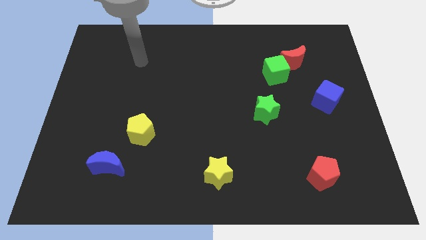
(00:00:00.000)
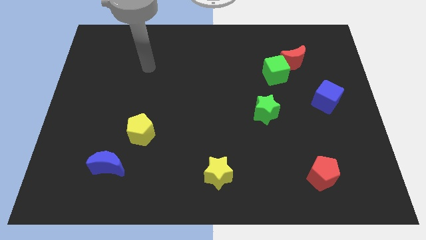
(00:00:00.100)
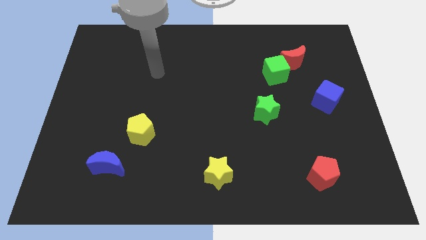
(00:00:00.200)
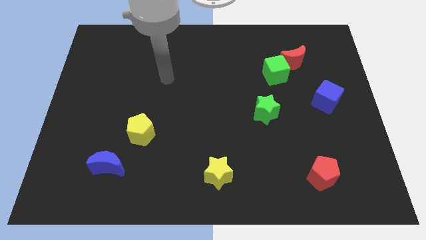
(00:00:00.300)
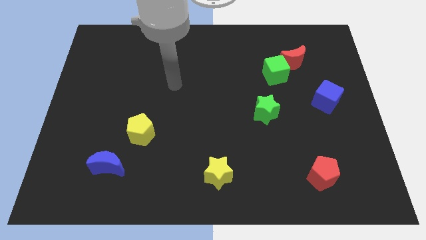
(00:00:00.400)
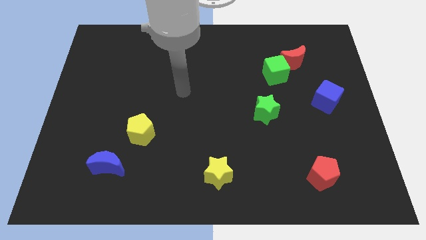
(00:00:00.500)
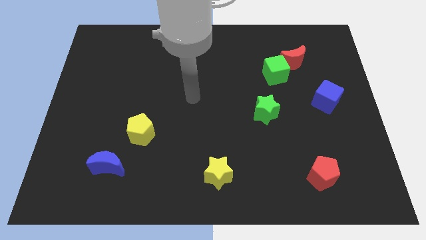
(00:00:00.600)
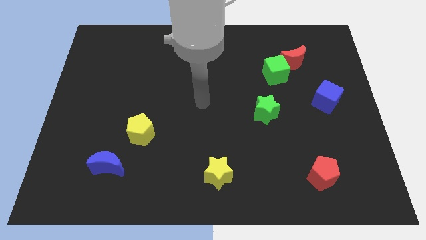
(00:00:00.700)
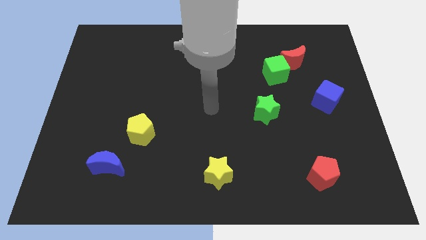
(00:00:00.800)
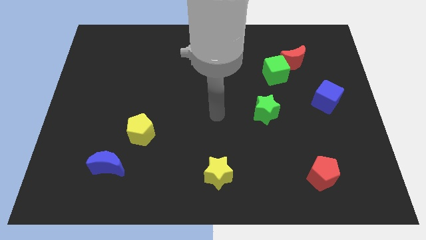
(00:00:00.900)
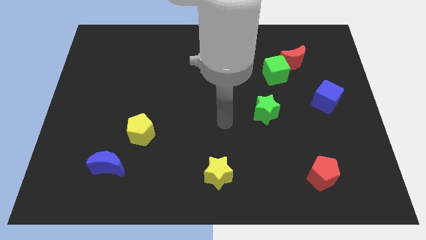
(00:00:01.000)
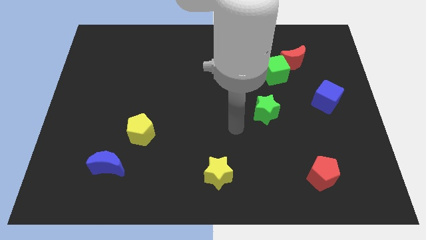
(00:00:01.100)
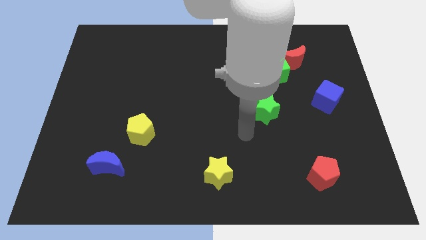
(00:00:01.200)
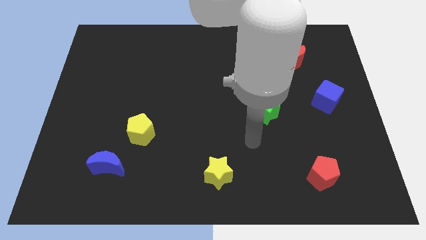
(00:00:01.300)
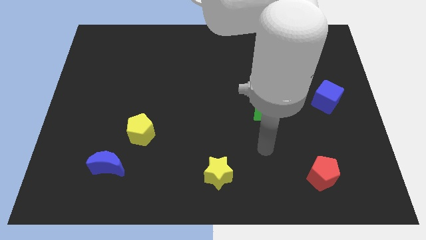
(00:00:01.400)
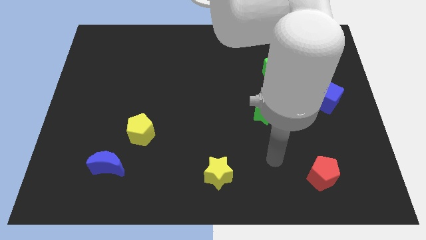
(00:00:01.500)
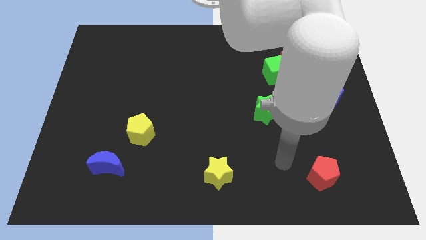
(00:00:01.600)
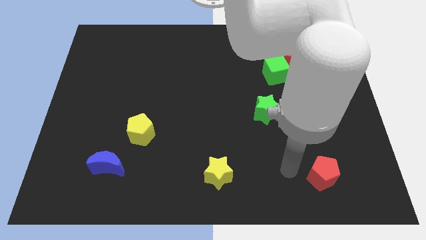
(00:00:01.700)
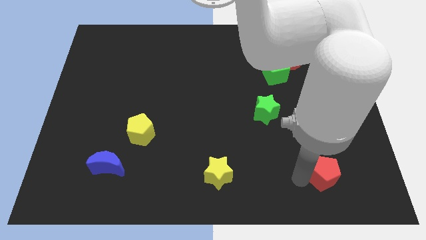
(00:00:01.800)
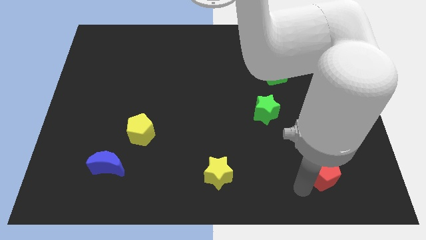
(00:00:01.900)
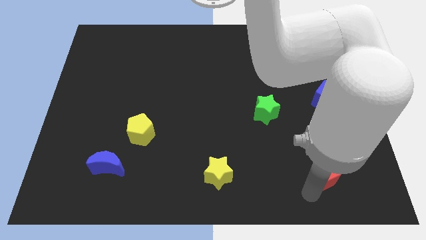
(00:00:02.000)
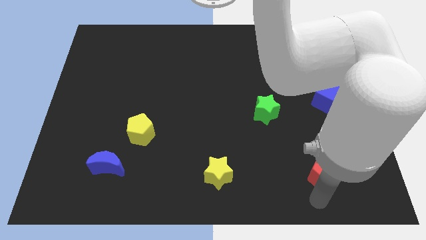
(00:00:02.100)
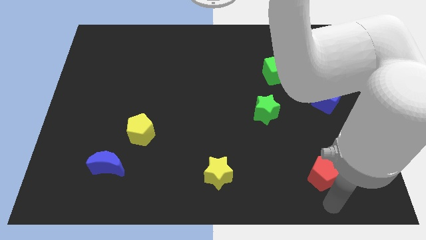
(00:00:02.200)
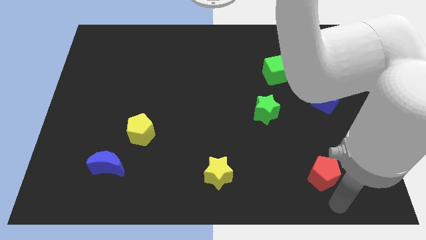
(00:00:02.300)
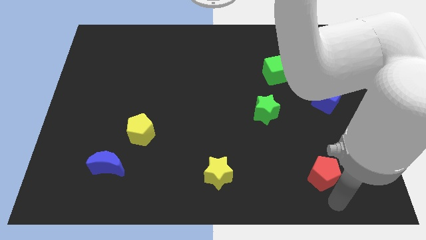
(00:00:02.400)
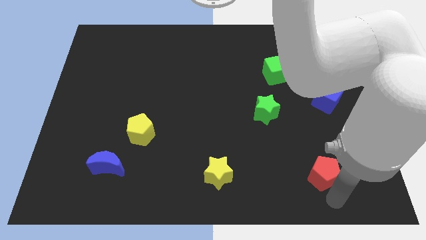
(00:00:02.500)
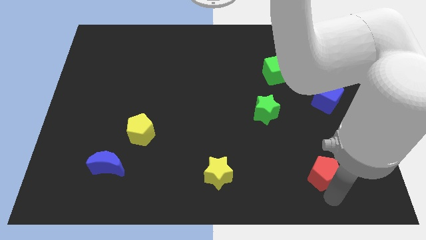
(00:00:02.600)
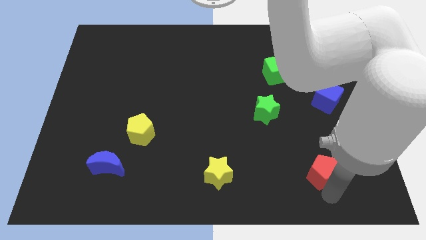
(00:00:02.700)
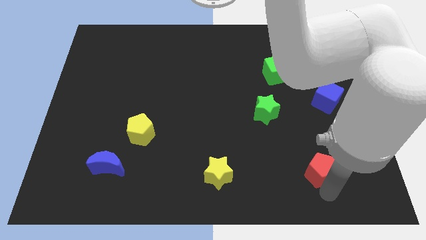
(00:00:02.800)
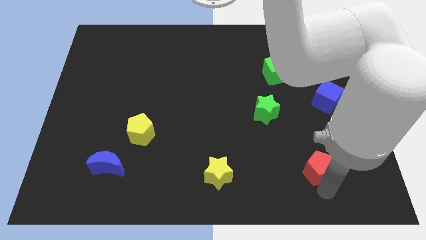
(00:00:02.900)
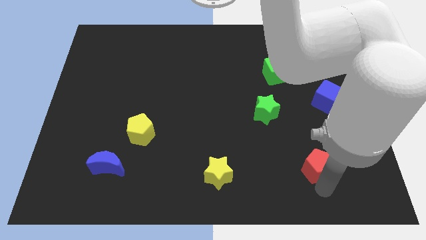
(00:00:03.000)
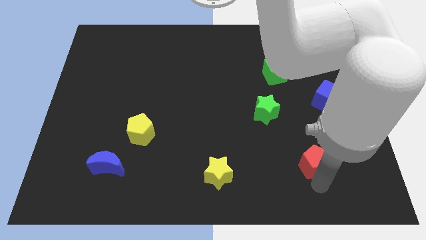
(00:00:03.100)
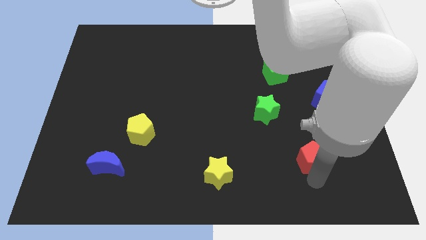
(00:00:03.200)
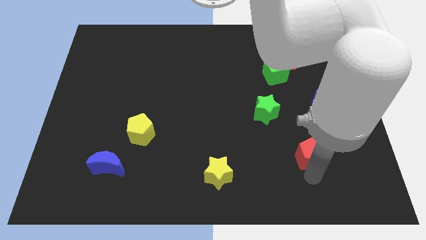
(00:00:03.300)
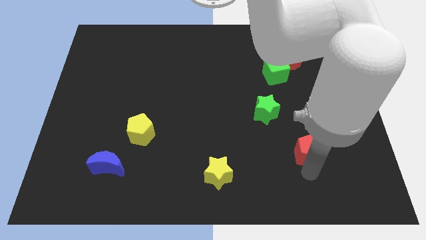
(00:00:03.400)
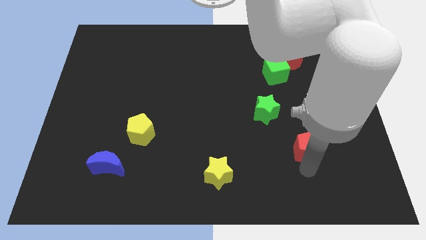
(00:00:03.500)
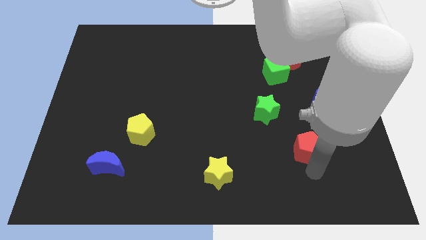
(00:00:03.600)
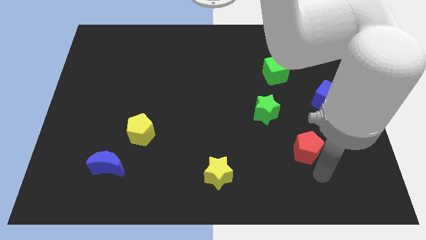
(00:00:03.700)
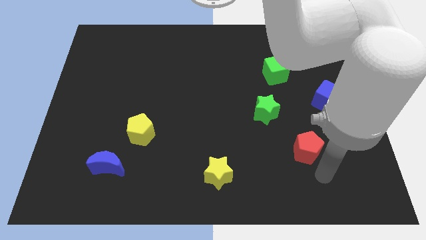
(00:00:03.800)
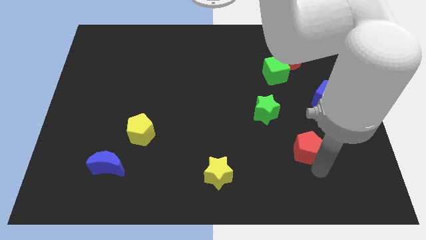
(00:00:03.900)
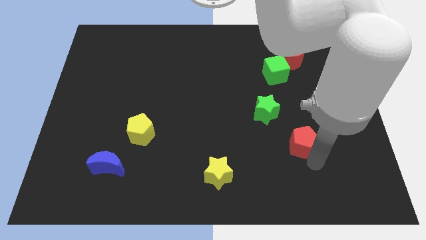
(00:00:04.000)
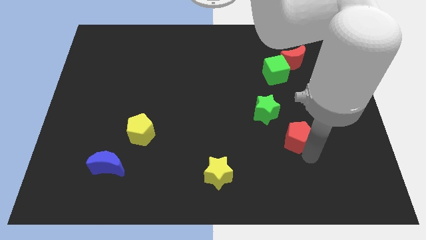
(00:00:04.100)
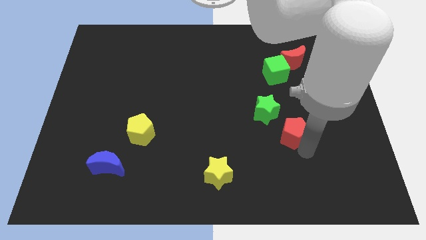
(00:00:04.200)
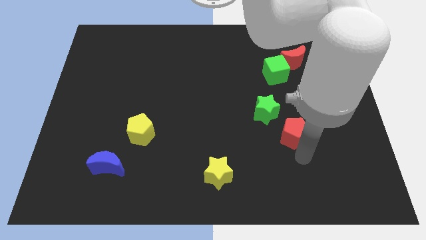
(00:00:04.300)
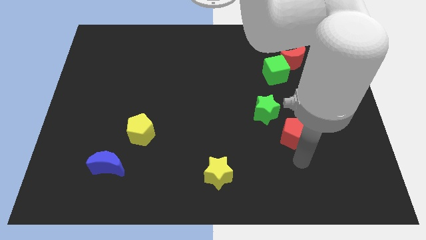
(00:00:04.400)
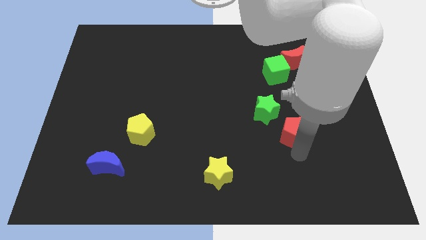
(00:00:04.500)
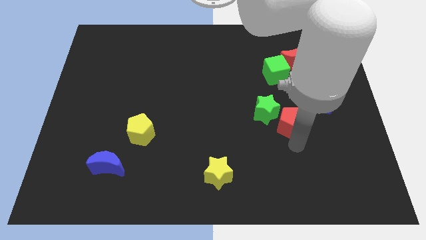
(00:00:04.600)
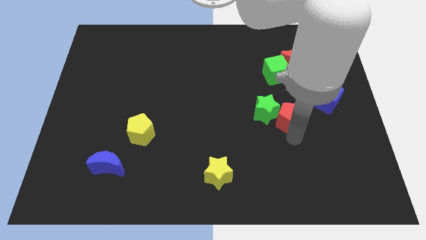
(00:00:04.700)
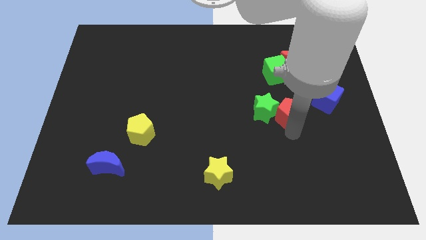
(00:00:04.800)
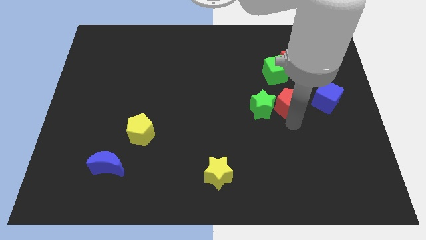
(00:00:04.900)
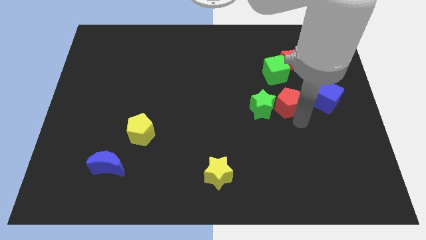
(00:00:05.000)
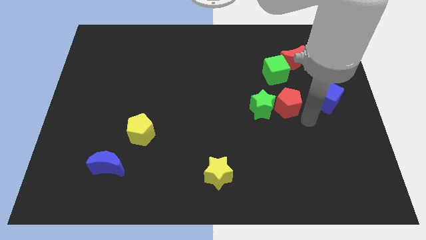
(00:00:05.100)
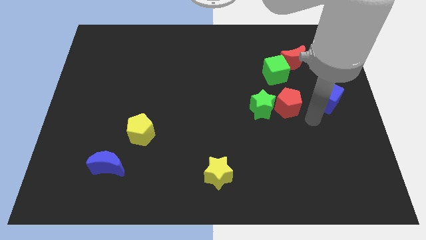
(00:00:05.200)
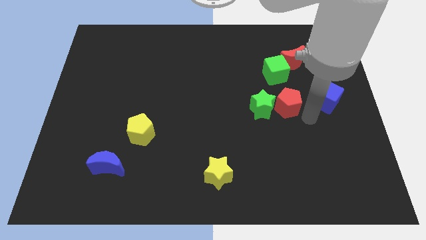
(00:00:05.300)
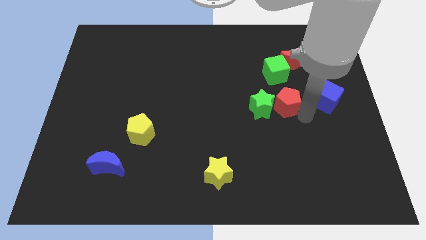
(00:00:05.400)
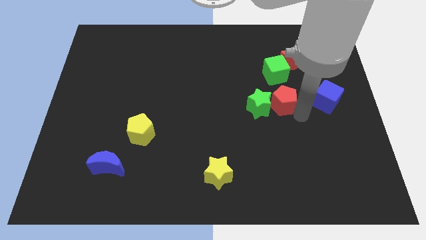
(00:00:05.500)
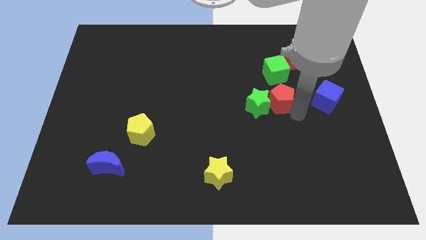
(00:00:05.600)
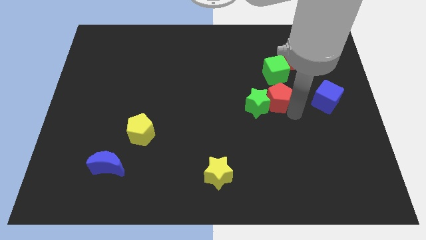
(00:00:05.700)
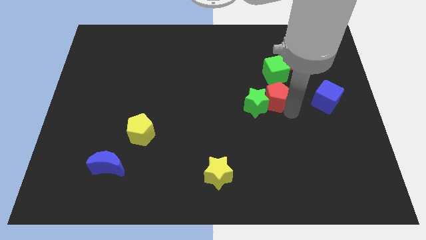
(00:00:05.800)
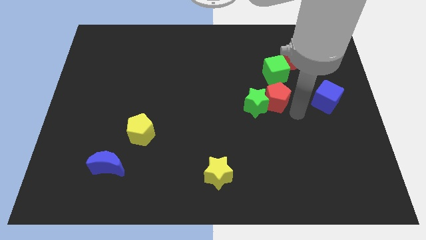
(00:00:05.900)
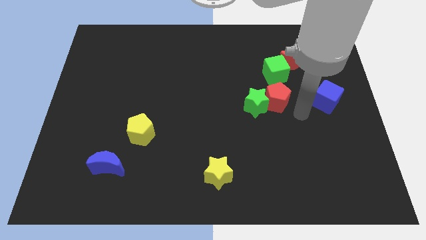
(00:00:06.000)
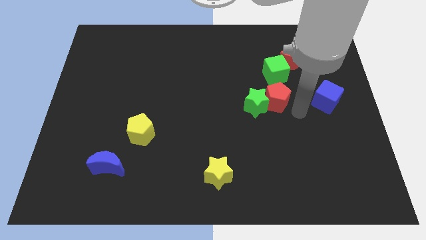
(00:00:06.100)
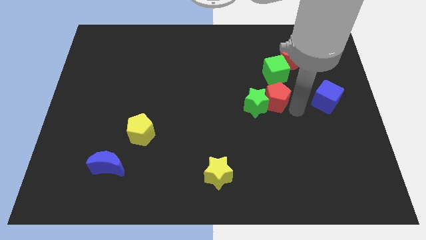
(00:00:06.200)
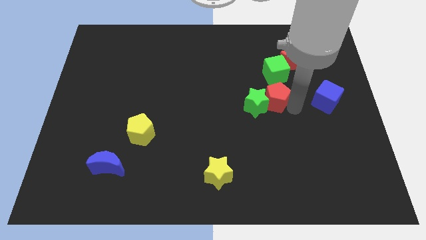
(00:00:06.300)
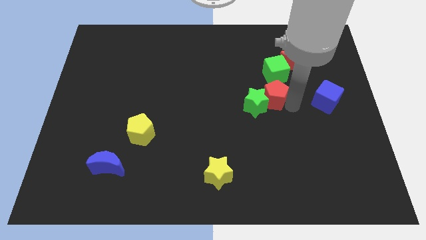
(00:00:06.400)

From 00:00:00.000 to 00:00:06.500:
push the red pentagon diagonally down and to the left of the green cube

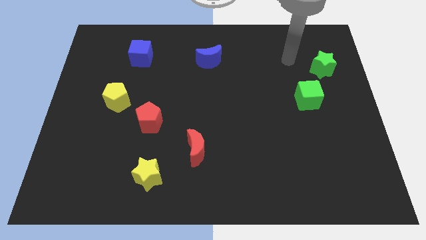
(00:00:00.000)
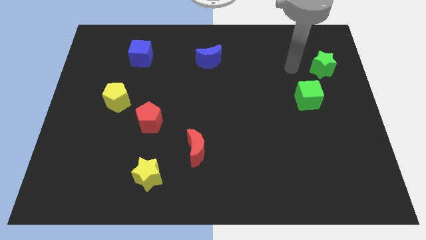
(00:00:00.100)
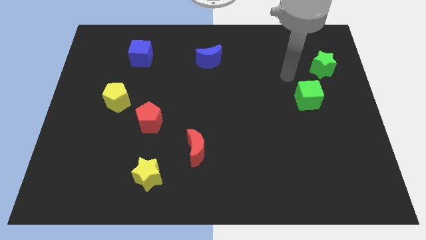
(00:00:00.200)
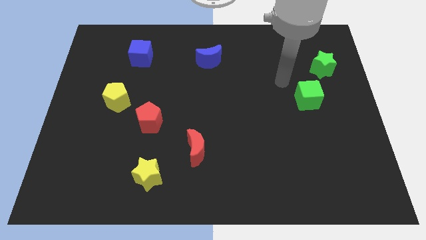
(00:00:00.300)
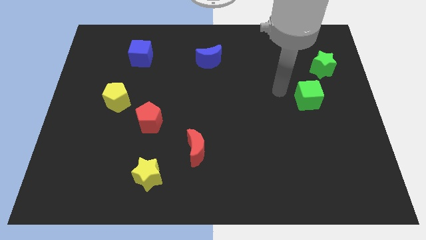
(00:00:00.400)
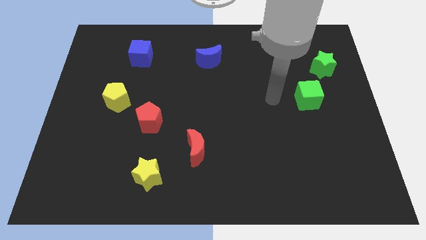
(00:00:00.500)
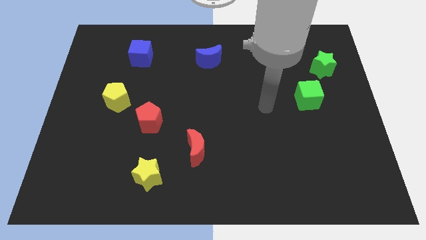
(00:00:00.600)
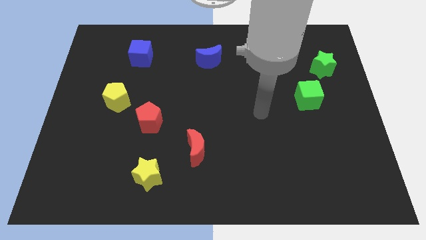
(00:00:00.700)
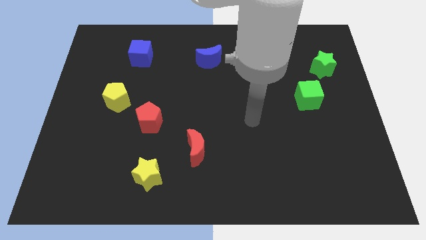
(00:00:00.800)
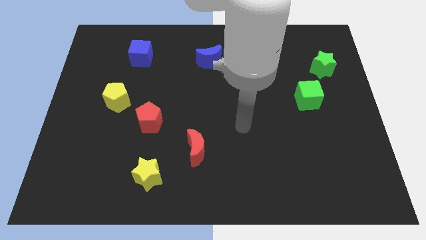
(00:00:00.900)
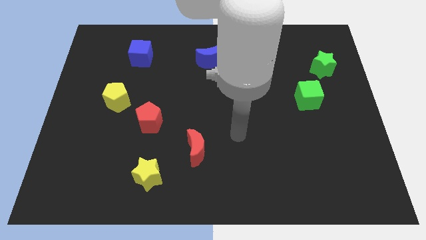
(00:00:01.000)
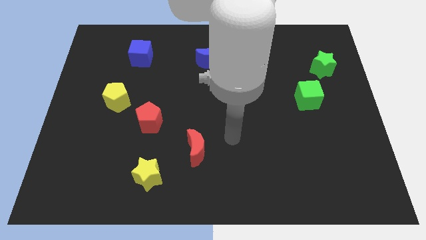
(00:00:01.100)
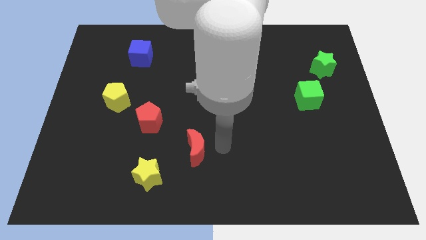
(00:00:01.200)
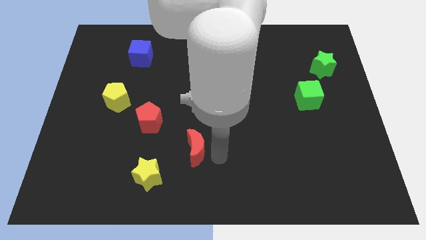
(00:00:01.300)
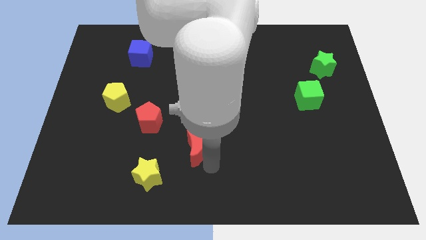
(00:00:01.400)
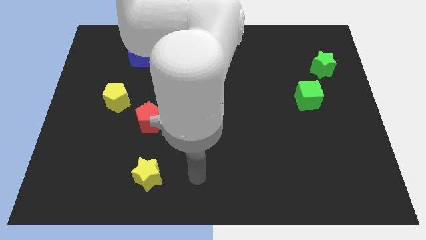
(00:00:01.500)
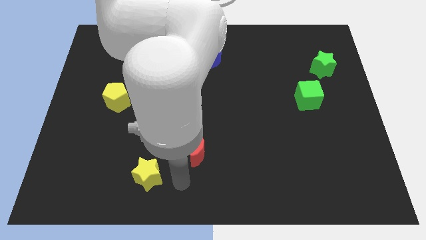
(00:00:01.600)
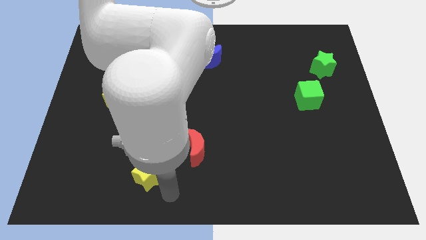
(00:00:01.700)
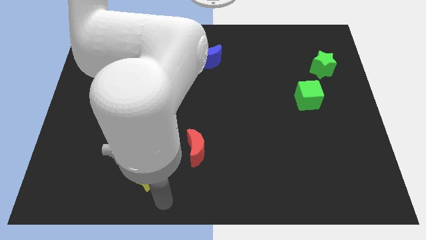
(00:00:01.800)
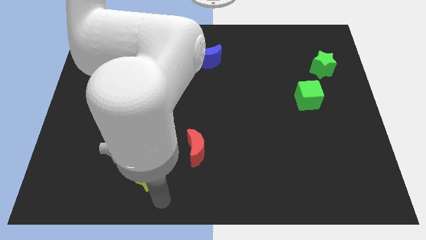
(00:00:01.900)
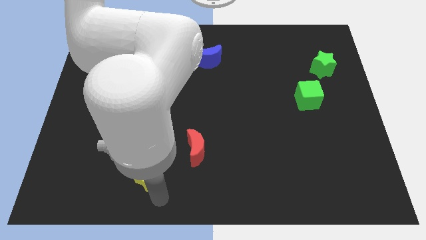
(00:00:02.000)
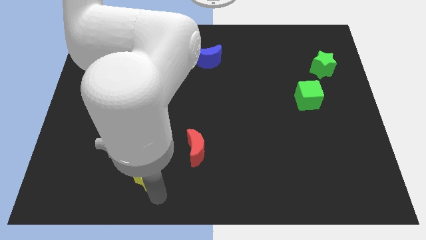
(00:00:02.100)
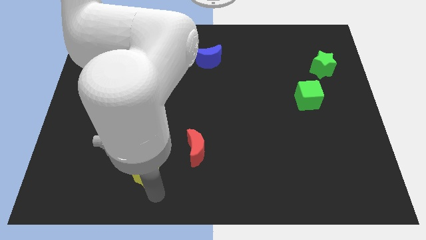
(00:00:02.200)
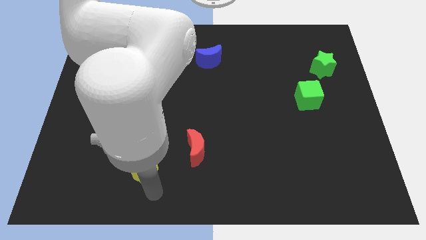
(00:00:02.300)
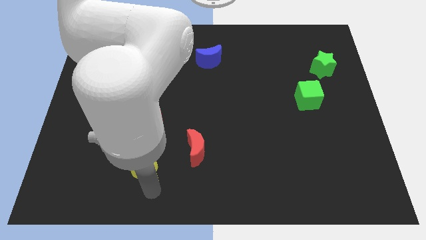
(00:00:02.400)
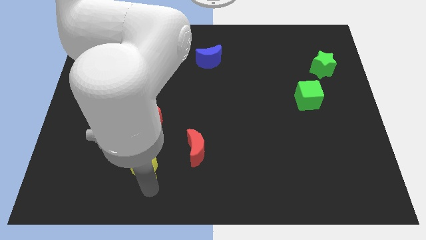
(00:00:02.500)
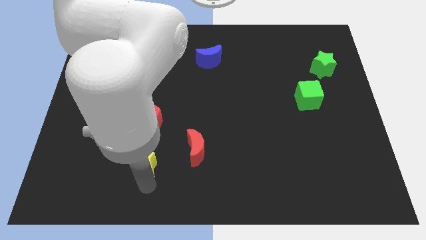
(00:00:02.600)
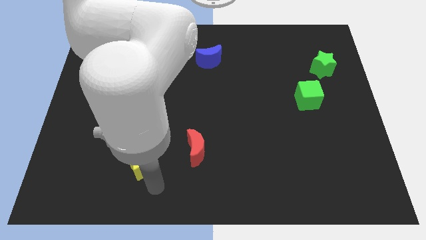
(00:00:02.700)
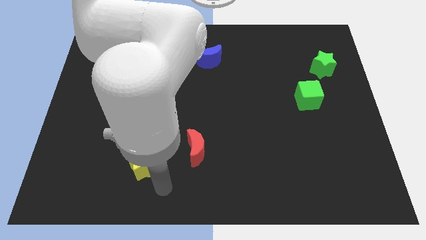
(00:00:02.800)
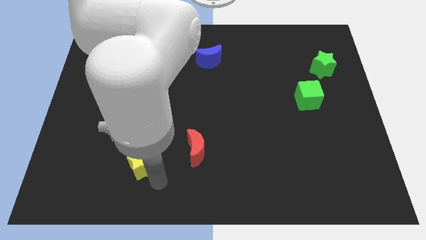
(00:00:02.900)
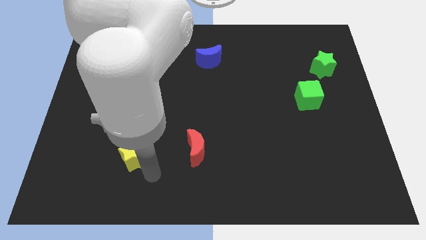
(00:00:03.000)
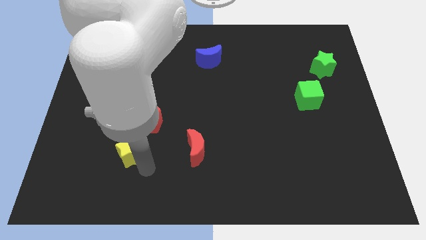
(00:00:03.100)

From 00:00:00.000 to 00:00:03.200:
slide the yellow star to the bottom left side of the red pentagon
